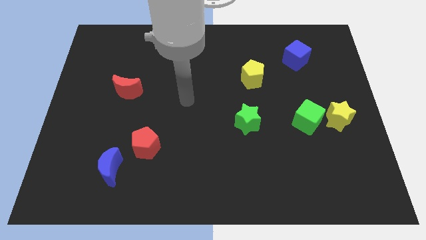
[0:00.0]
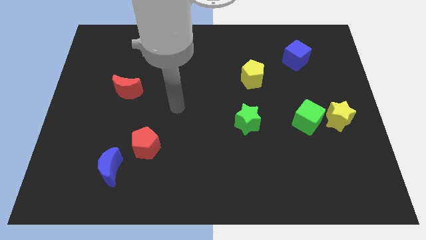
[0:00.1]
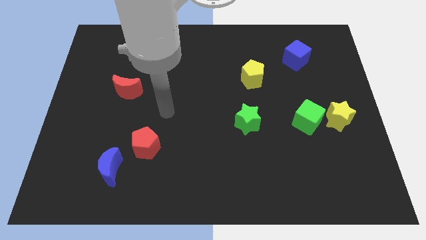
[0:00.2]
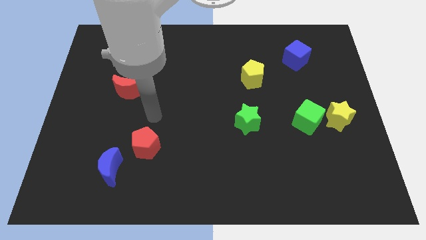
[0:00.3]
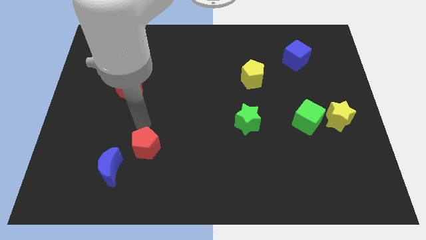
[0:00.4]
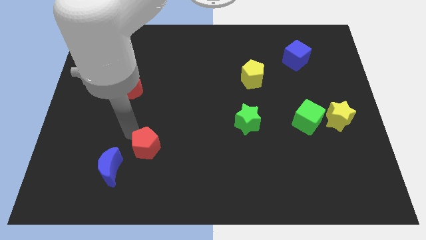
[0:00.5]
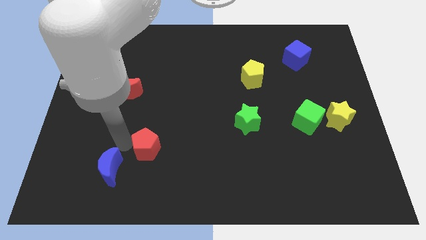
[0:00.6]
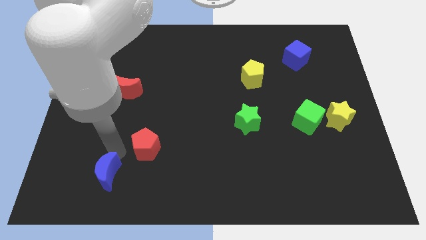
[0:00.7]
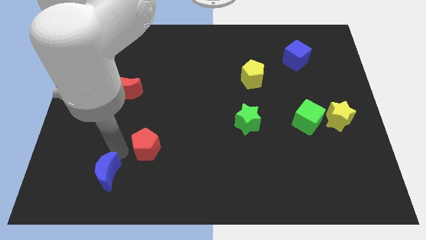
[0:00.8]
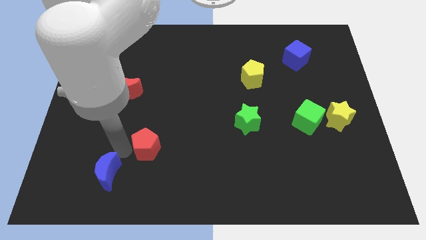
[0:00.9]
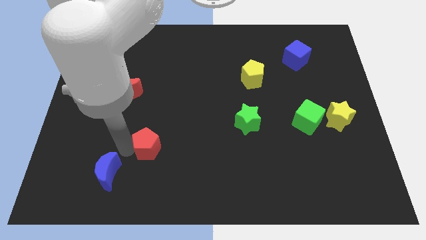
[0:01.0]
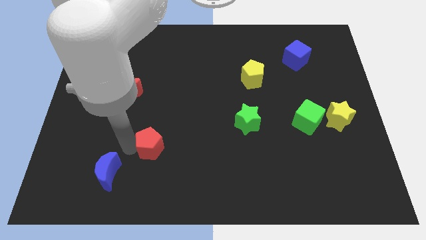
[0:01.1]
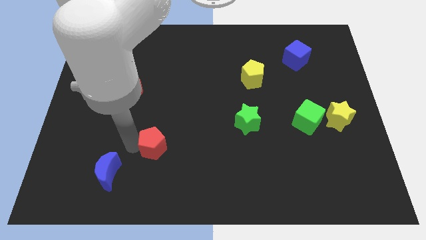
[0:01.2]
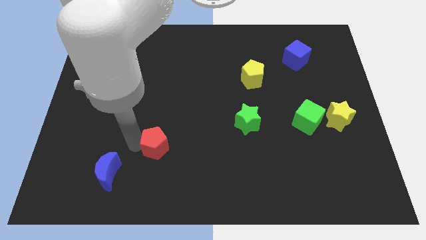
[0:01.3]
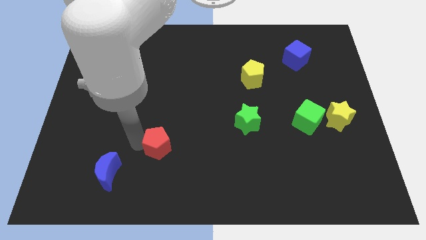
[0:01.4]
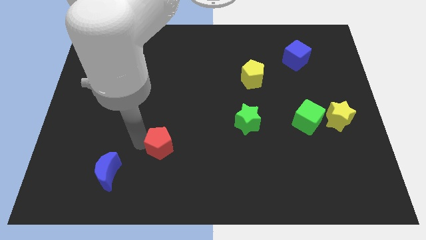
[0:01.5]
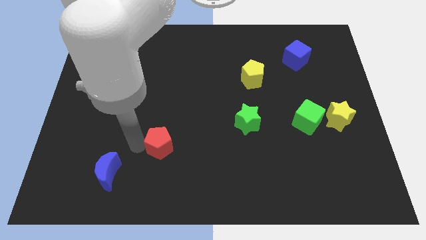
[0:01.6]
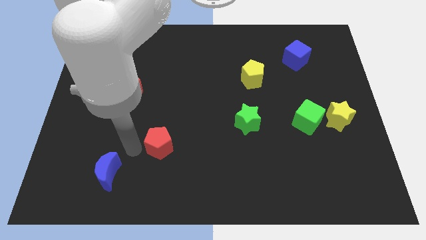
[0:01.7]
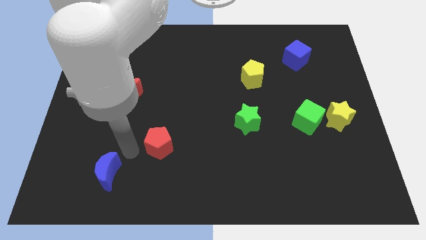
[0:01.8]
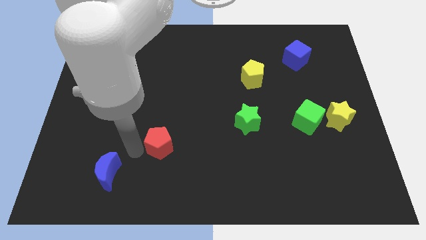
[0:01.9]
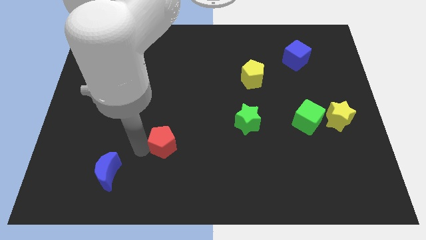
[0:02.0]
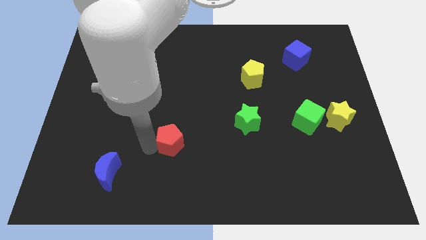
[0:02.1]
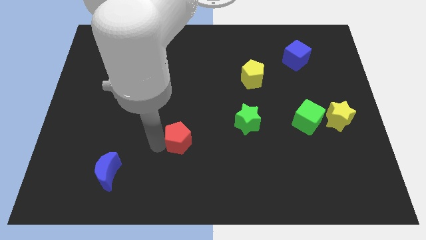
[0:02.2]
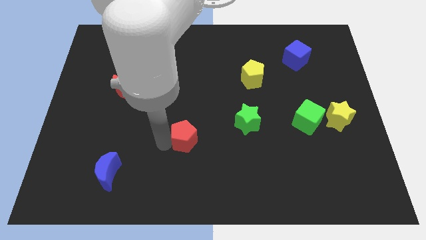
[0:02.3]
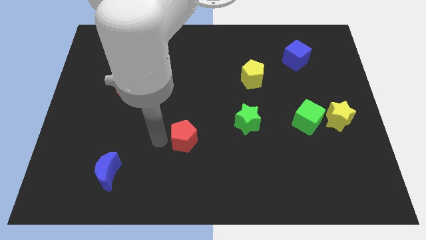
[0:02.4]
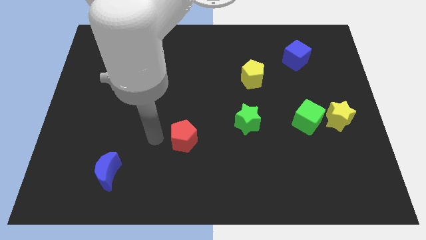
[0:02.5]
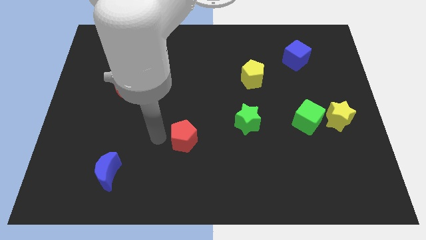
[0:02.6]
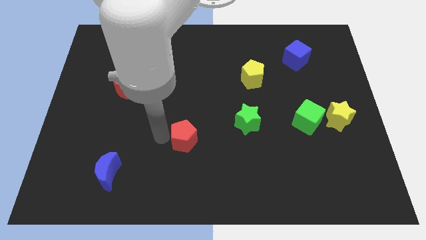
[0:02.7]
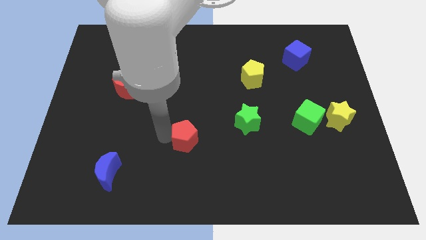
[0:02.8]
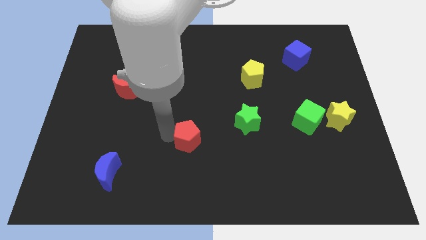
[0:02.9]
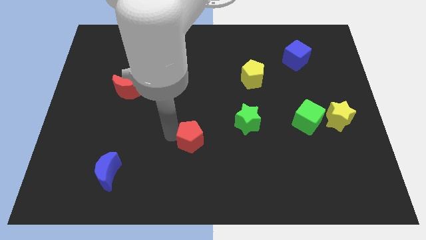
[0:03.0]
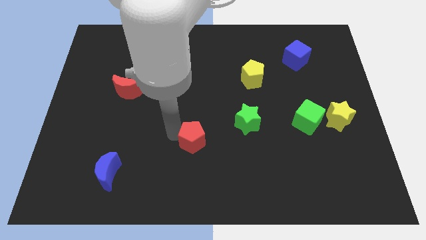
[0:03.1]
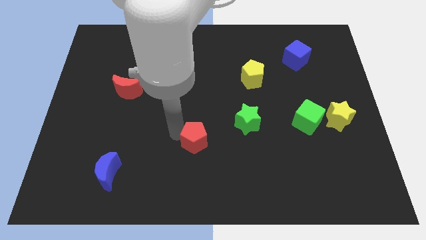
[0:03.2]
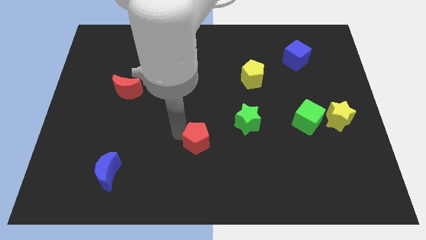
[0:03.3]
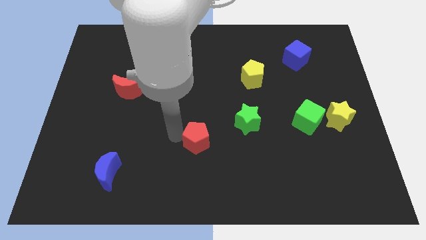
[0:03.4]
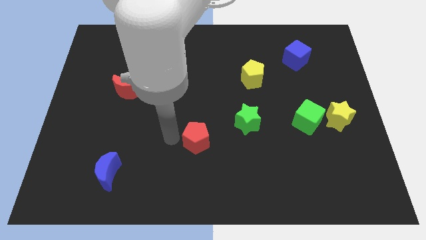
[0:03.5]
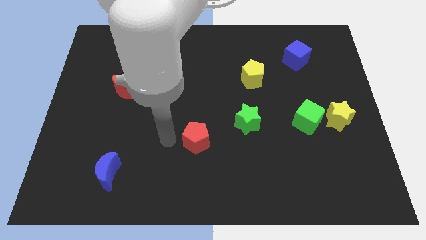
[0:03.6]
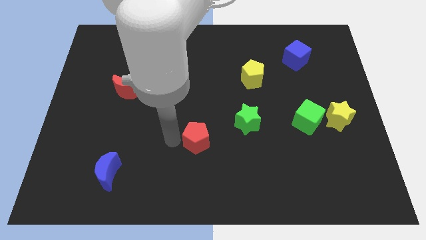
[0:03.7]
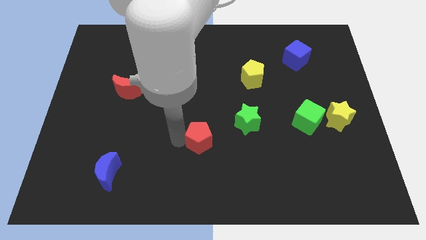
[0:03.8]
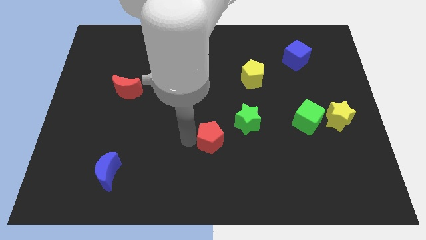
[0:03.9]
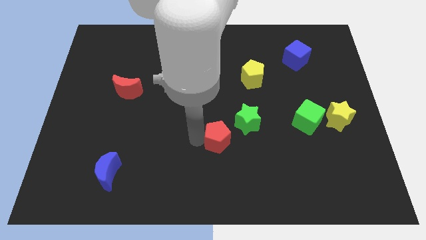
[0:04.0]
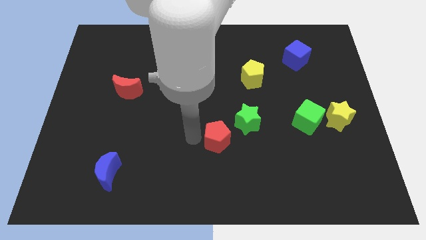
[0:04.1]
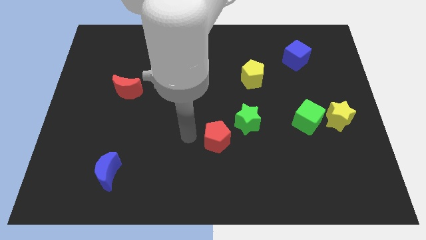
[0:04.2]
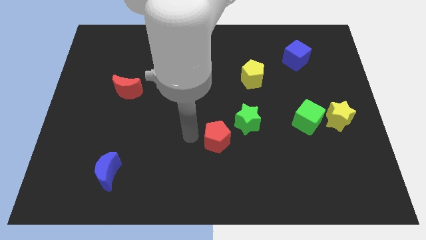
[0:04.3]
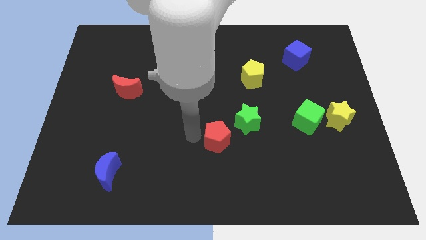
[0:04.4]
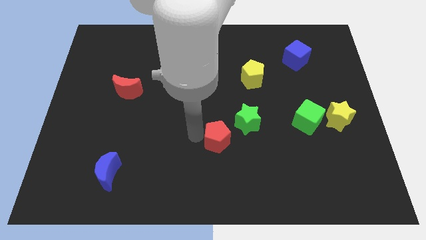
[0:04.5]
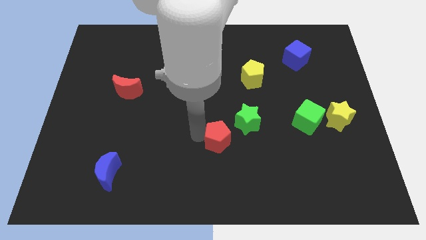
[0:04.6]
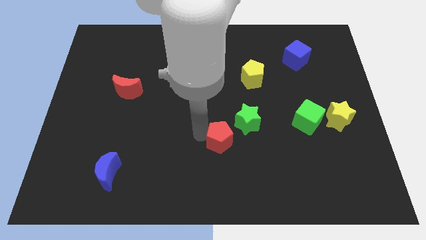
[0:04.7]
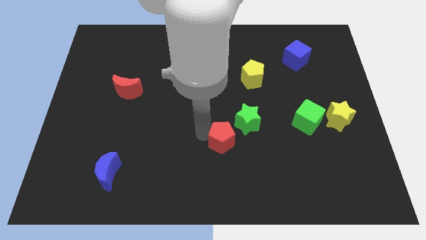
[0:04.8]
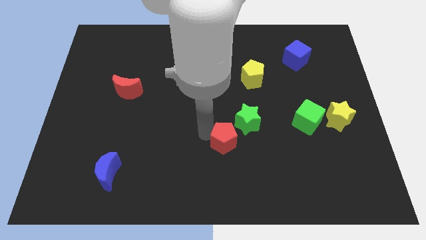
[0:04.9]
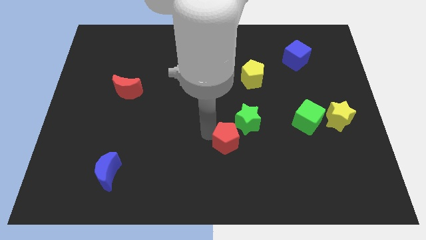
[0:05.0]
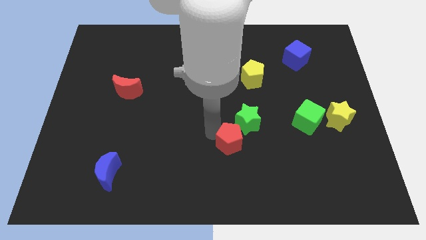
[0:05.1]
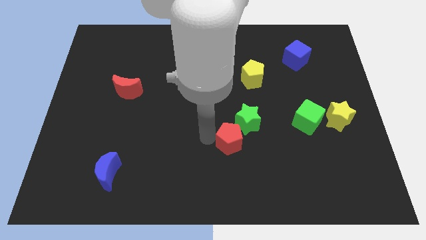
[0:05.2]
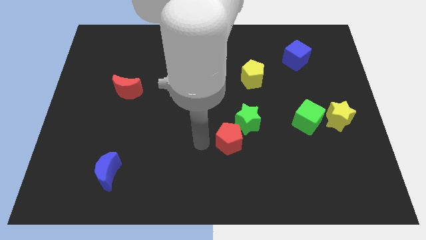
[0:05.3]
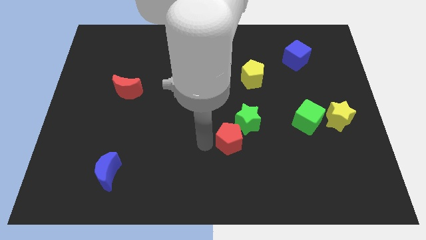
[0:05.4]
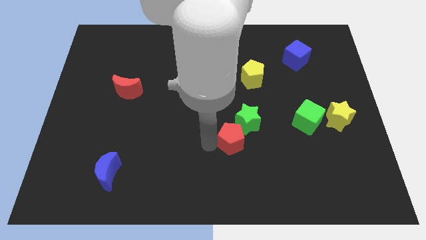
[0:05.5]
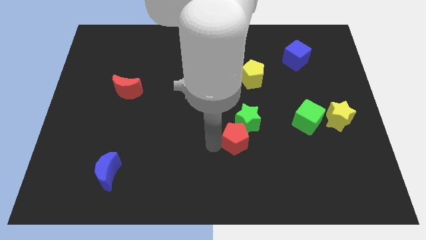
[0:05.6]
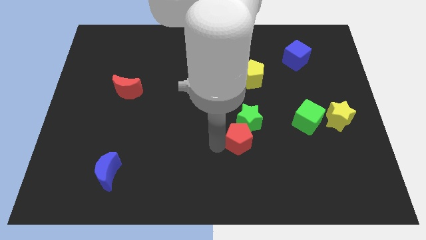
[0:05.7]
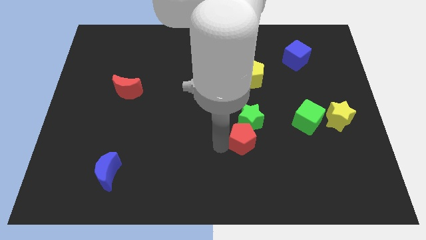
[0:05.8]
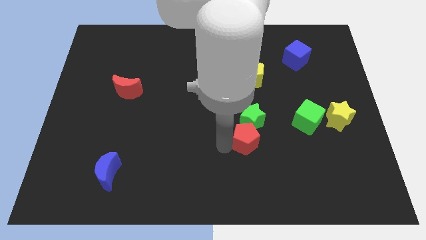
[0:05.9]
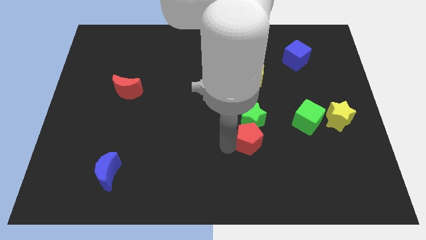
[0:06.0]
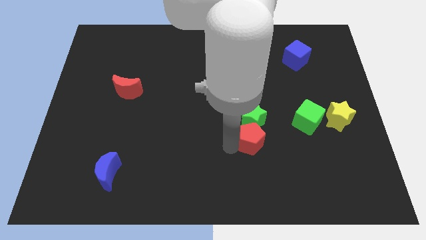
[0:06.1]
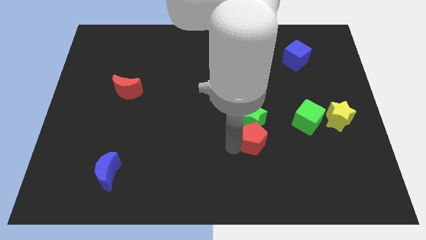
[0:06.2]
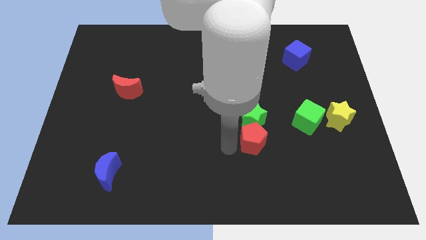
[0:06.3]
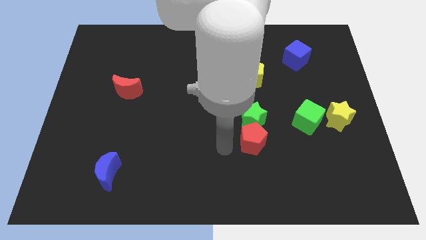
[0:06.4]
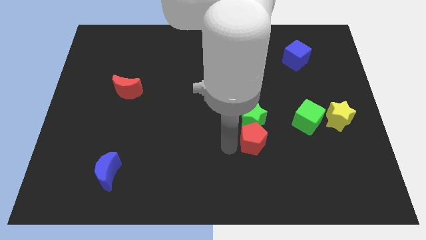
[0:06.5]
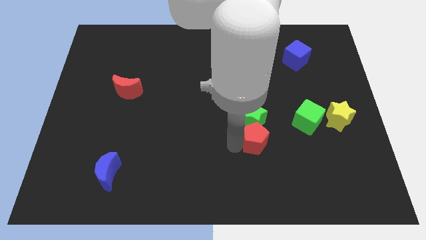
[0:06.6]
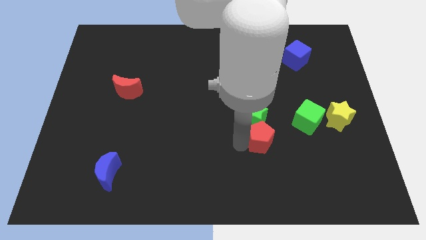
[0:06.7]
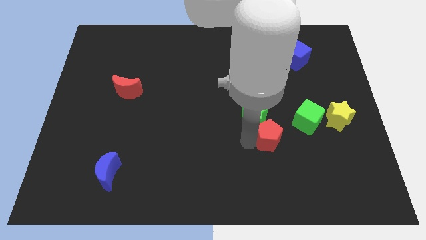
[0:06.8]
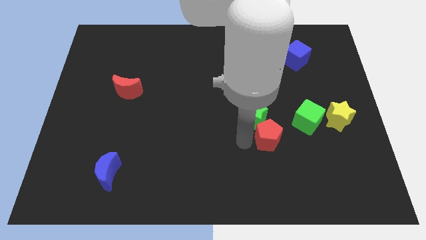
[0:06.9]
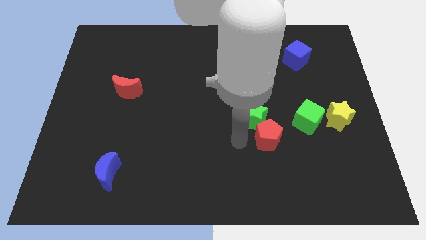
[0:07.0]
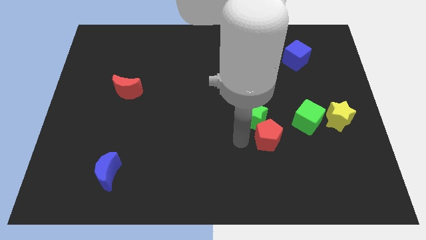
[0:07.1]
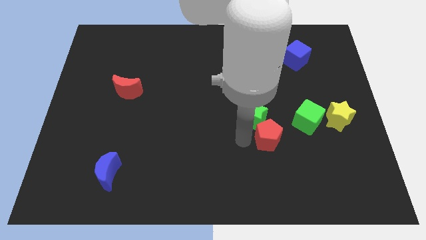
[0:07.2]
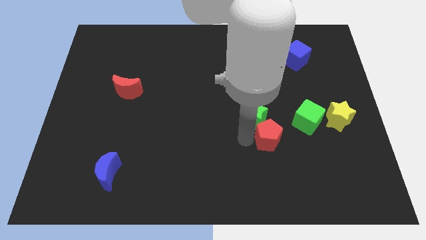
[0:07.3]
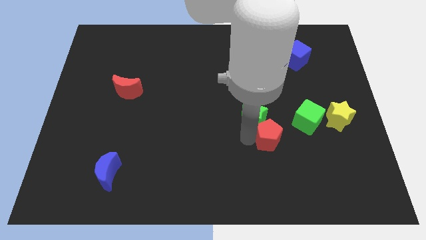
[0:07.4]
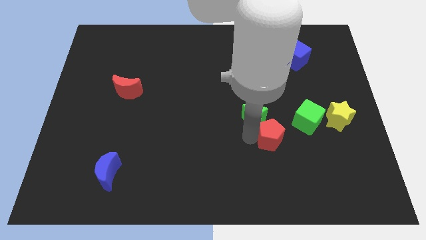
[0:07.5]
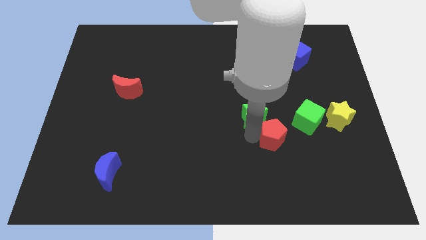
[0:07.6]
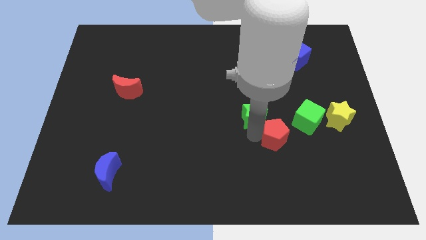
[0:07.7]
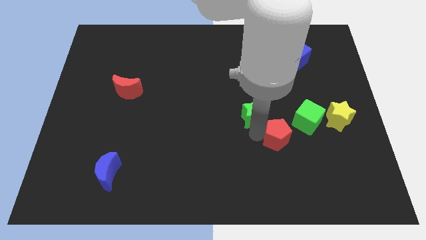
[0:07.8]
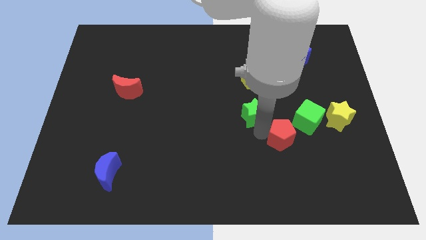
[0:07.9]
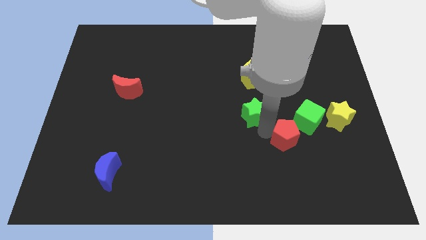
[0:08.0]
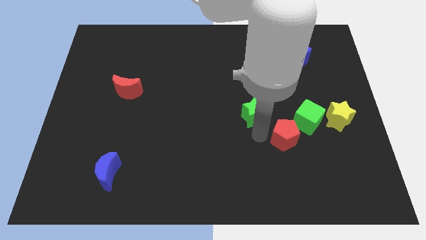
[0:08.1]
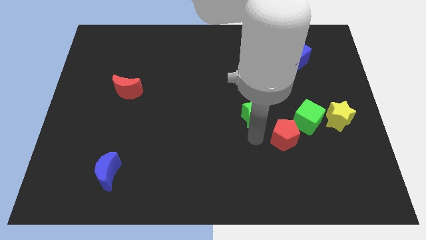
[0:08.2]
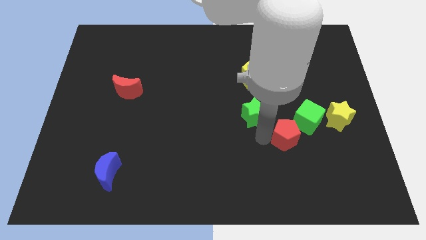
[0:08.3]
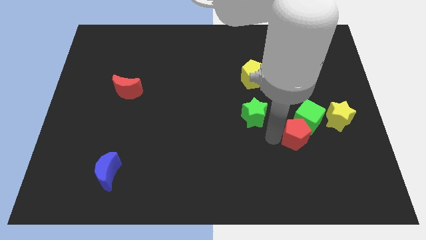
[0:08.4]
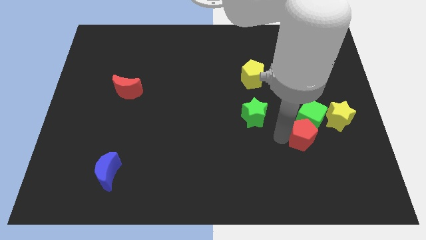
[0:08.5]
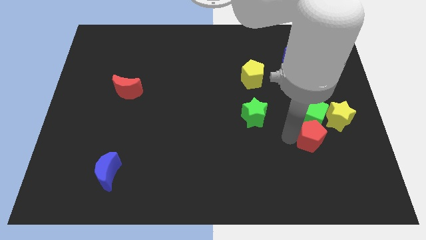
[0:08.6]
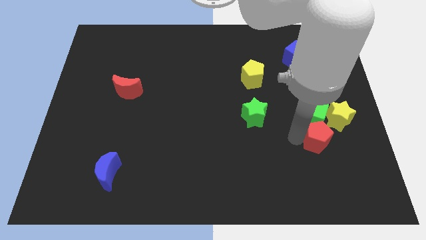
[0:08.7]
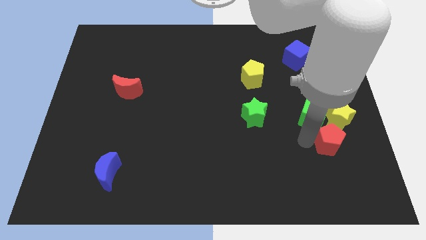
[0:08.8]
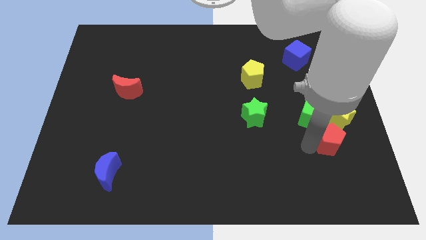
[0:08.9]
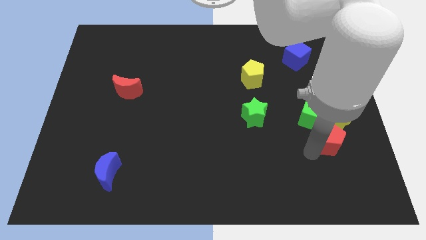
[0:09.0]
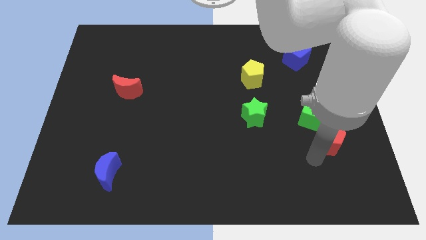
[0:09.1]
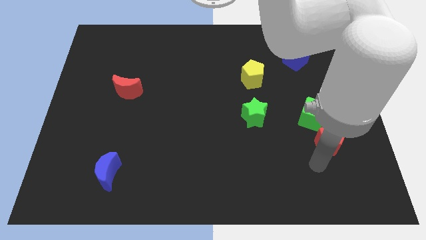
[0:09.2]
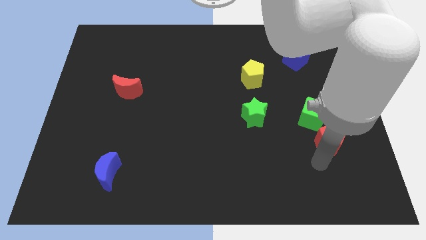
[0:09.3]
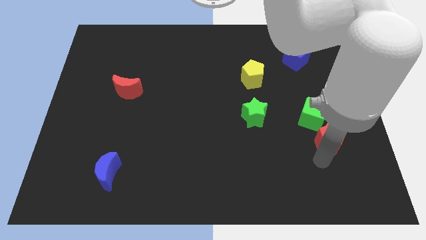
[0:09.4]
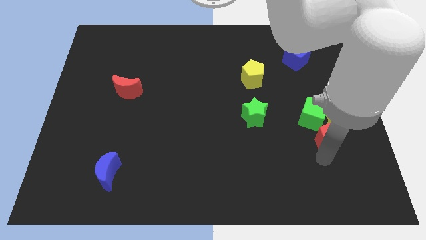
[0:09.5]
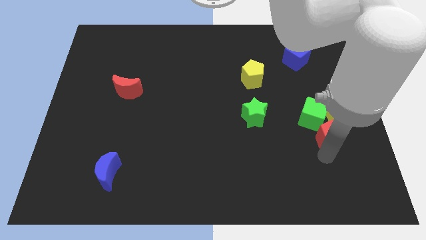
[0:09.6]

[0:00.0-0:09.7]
push the red pentagon next to the yellow star
